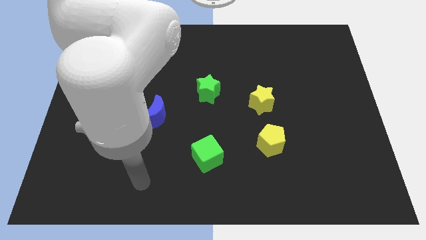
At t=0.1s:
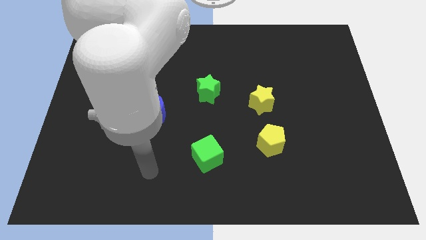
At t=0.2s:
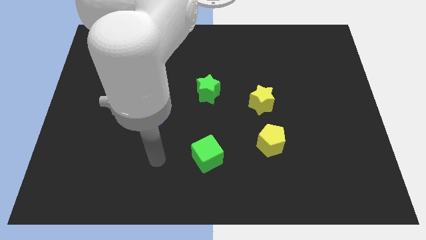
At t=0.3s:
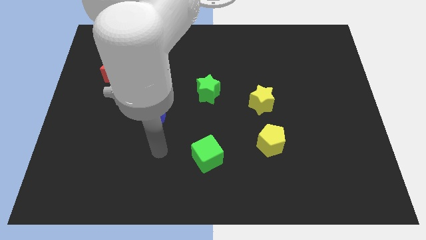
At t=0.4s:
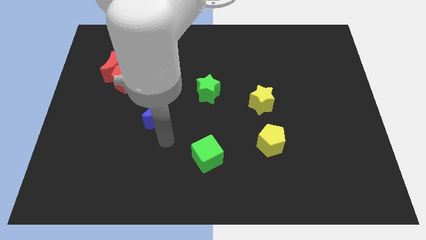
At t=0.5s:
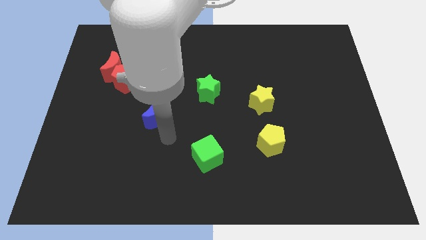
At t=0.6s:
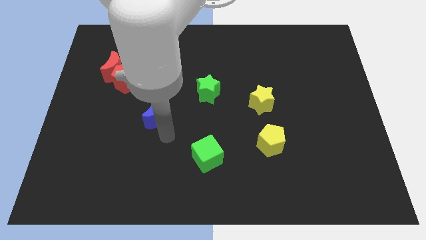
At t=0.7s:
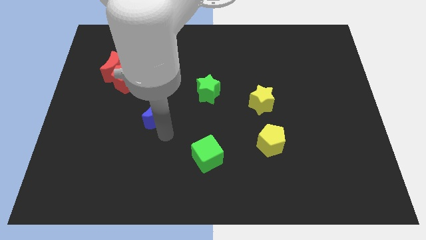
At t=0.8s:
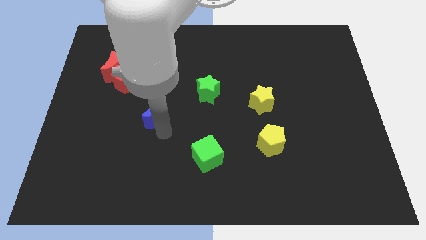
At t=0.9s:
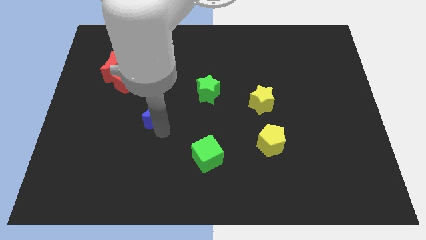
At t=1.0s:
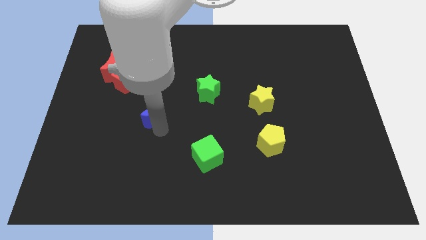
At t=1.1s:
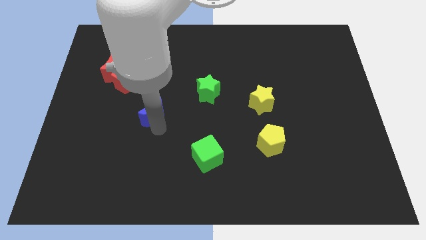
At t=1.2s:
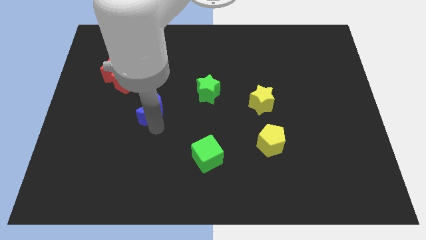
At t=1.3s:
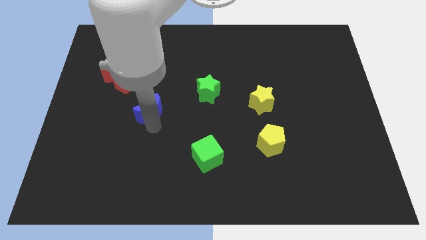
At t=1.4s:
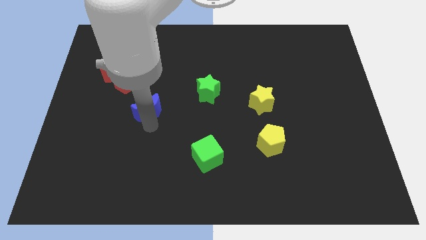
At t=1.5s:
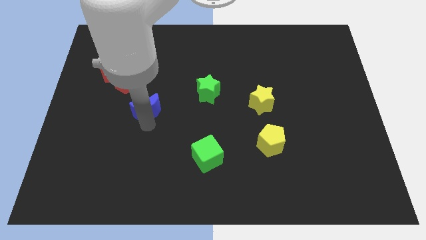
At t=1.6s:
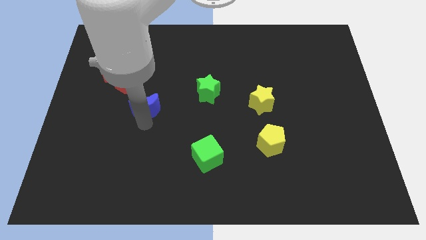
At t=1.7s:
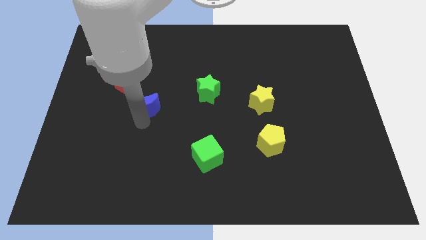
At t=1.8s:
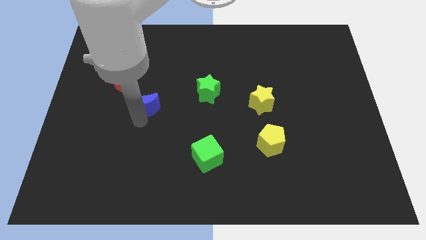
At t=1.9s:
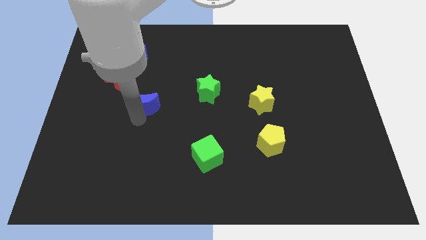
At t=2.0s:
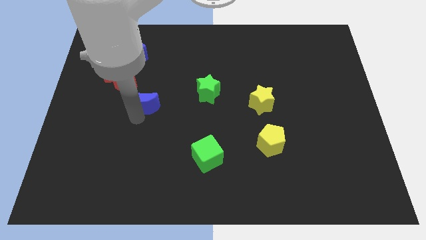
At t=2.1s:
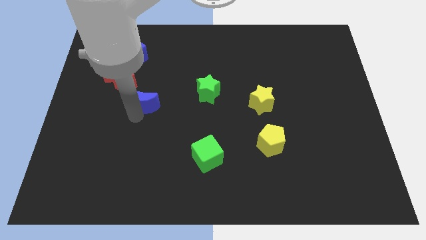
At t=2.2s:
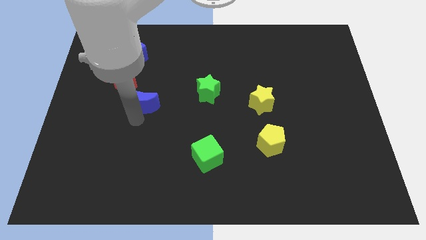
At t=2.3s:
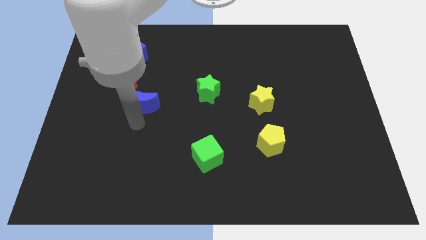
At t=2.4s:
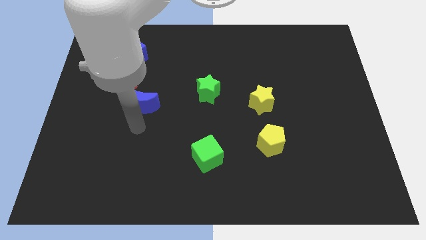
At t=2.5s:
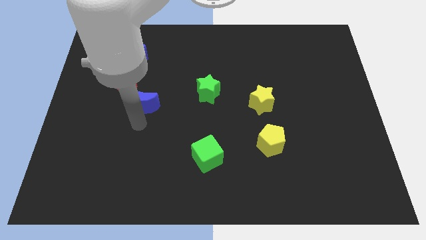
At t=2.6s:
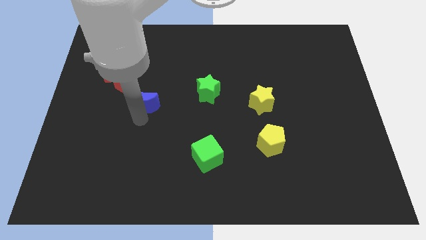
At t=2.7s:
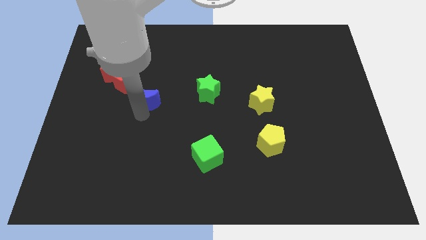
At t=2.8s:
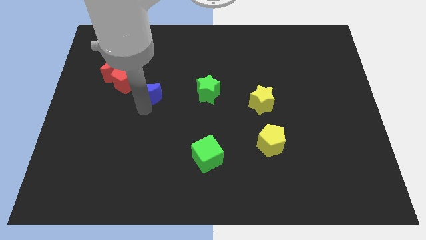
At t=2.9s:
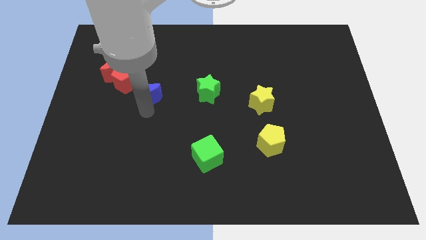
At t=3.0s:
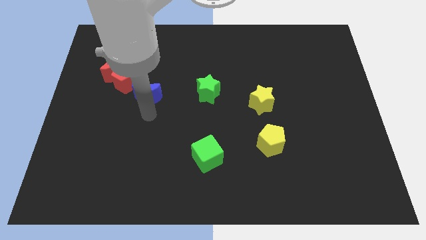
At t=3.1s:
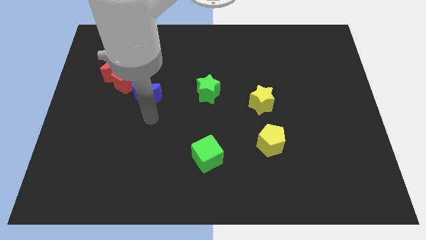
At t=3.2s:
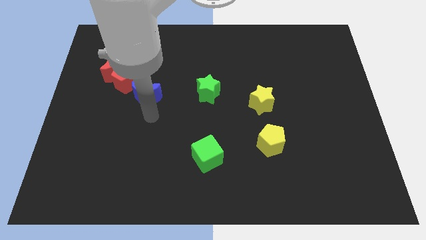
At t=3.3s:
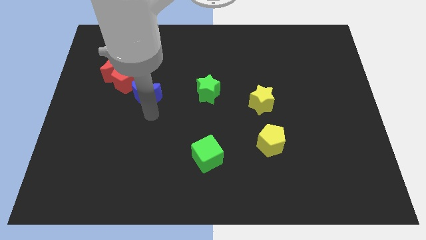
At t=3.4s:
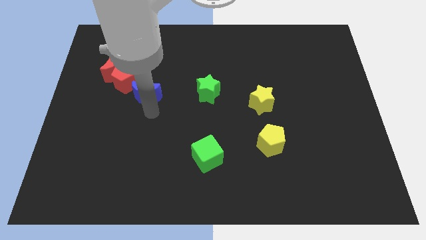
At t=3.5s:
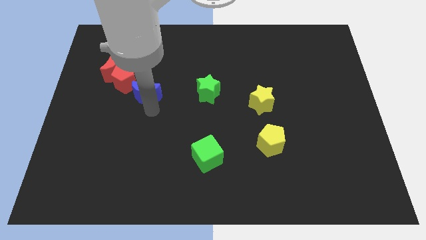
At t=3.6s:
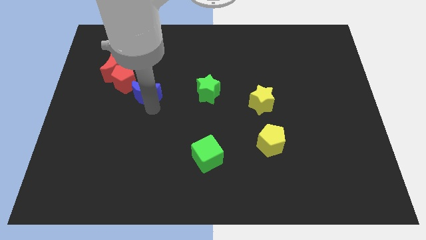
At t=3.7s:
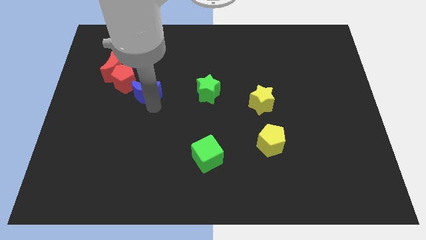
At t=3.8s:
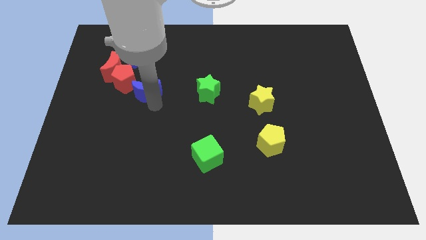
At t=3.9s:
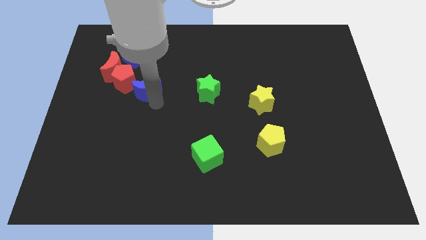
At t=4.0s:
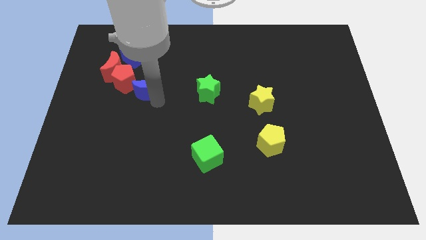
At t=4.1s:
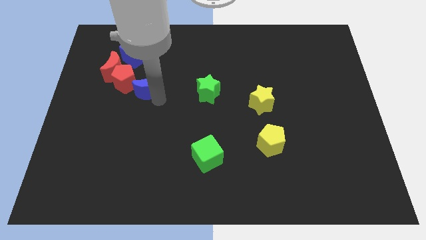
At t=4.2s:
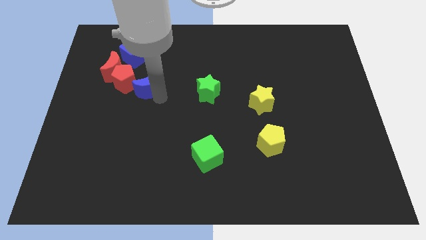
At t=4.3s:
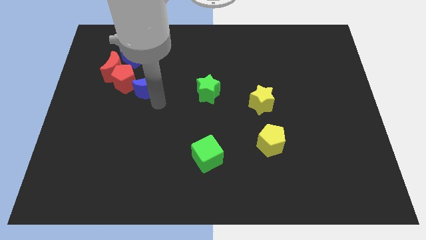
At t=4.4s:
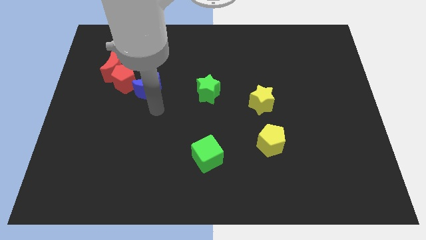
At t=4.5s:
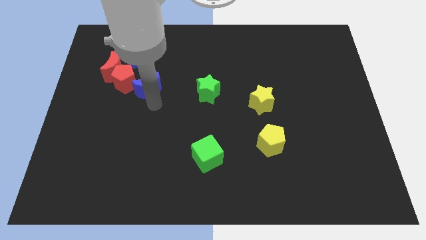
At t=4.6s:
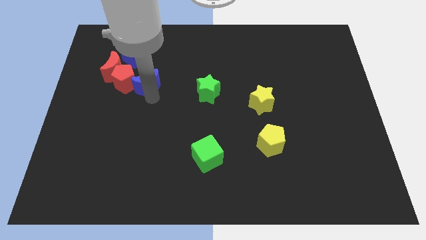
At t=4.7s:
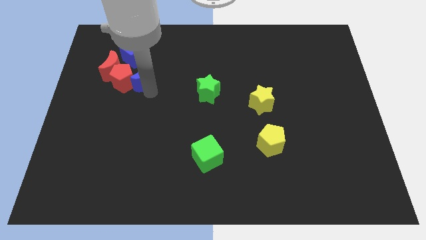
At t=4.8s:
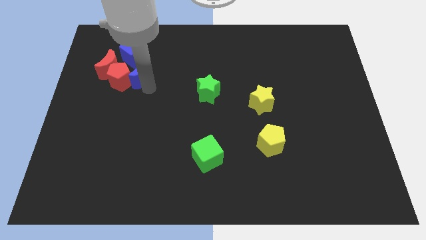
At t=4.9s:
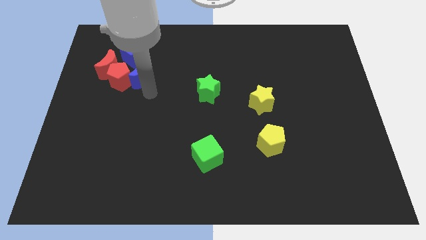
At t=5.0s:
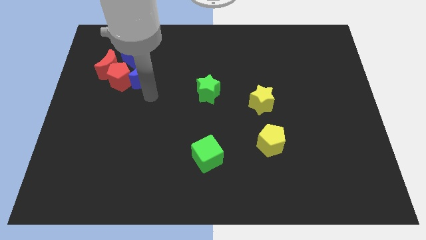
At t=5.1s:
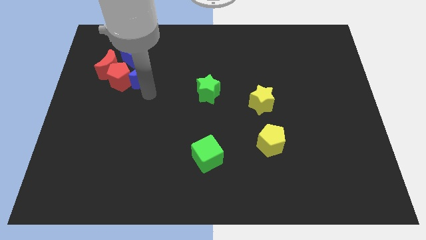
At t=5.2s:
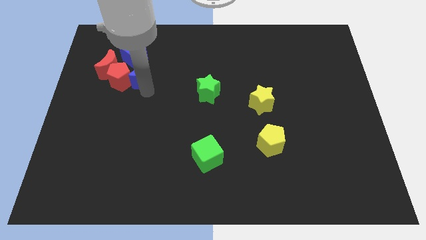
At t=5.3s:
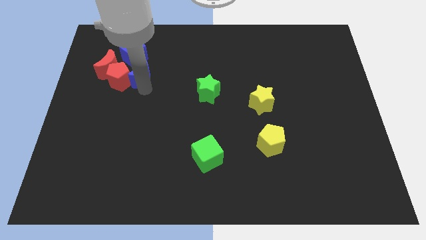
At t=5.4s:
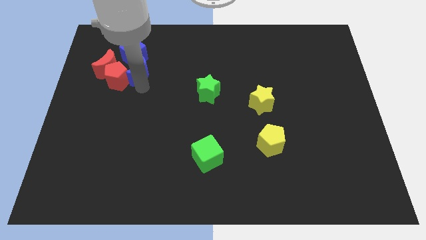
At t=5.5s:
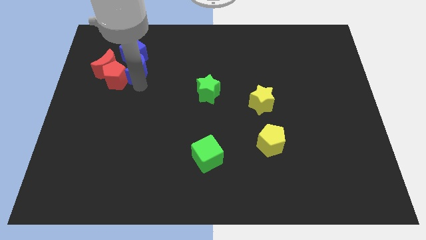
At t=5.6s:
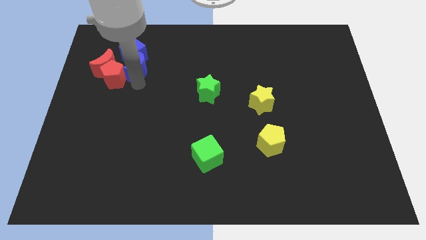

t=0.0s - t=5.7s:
put the blue moon towards the blue cube
